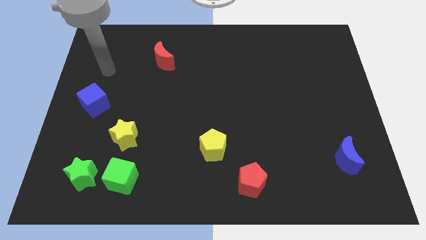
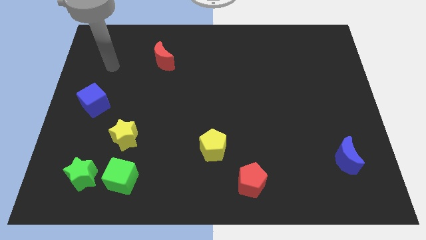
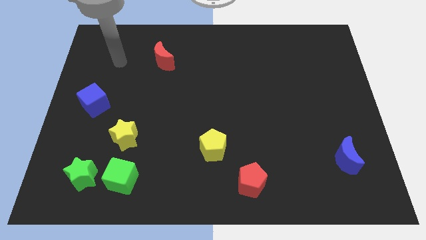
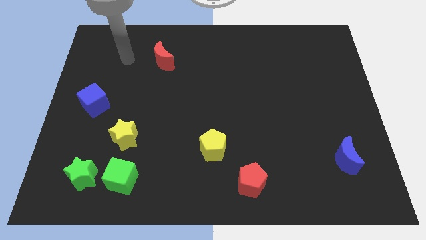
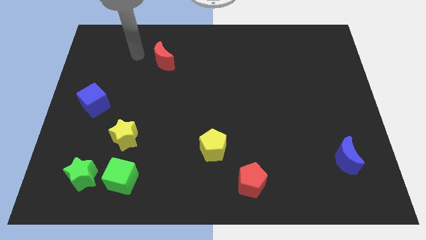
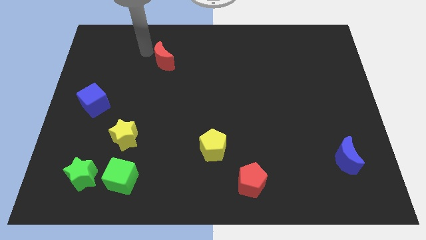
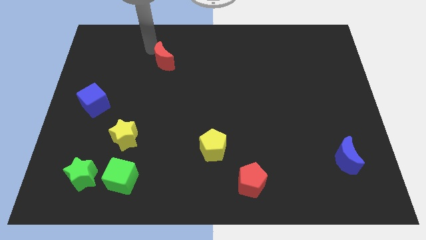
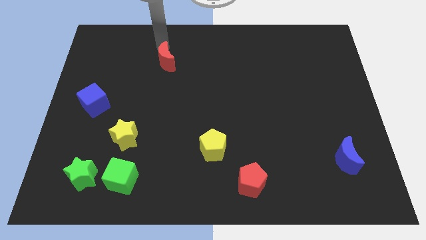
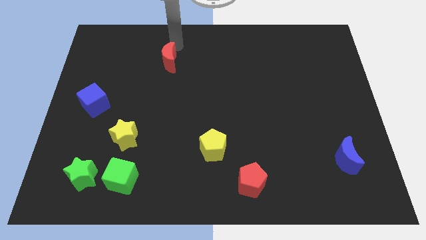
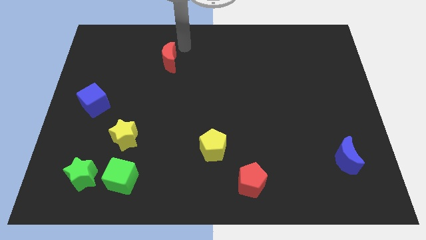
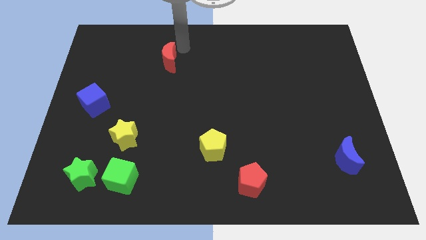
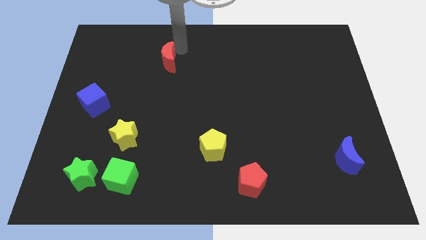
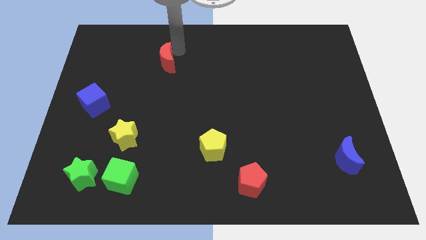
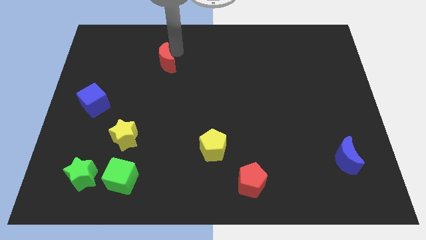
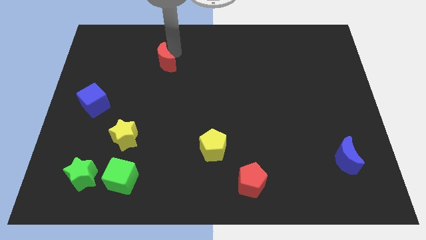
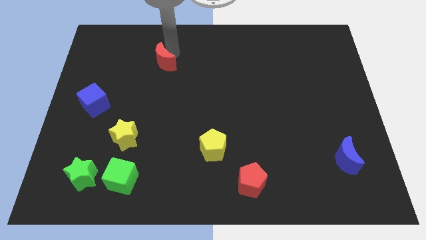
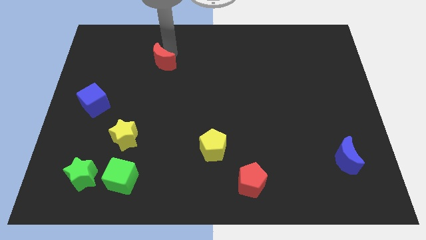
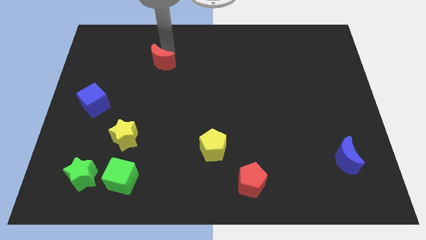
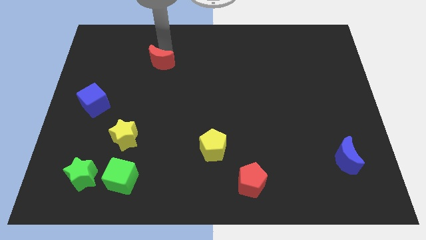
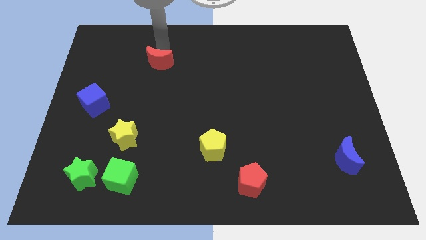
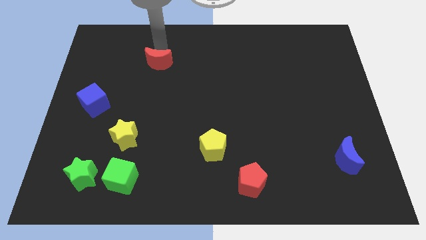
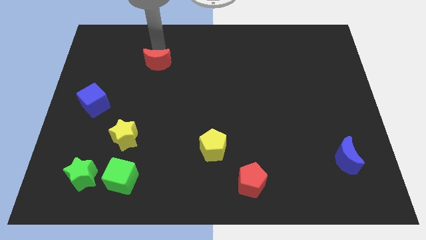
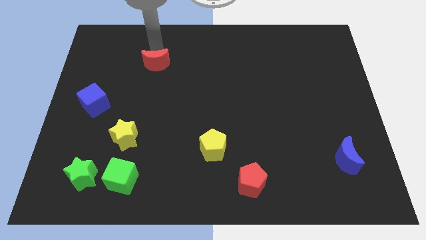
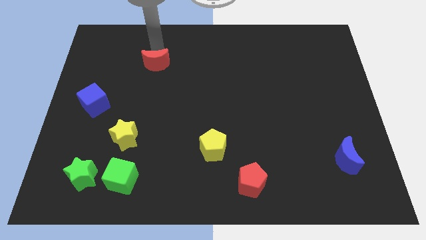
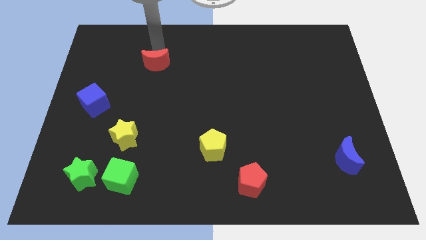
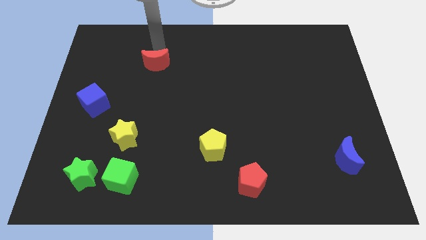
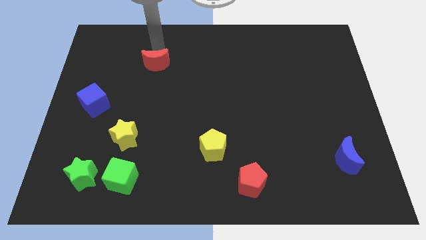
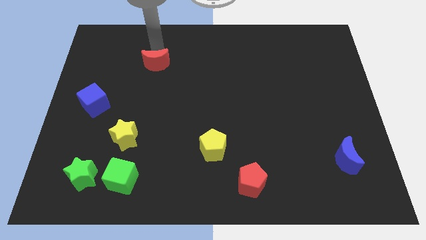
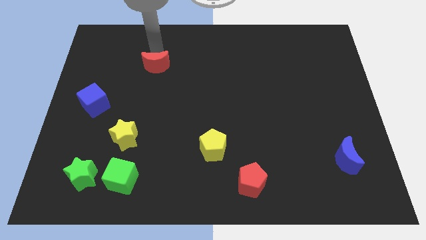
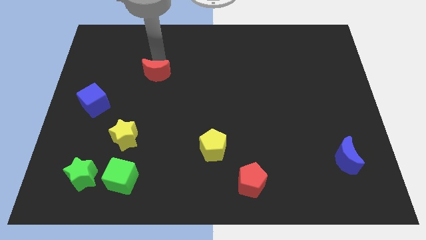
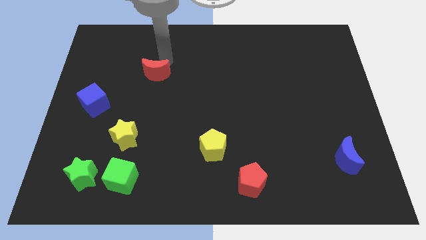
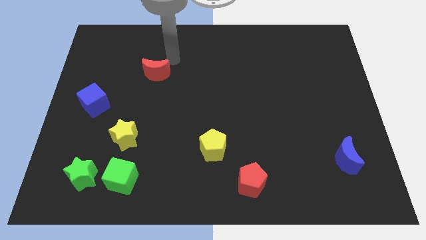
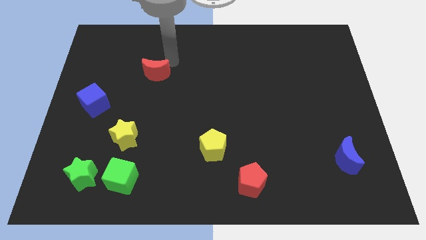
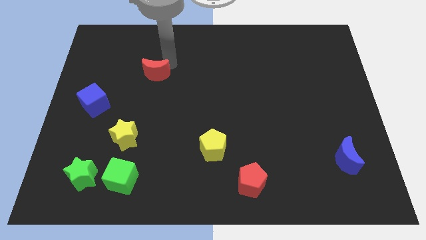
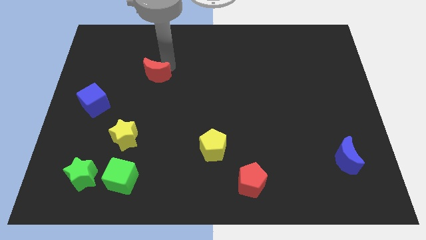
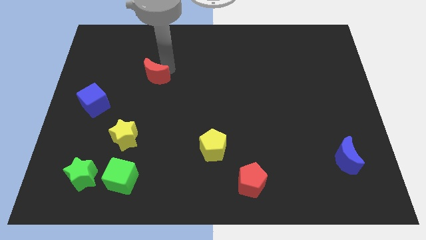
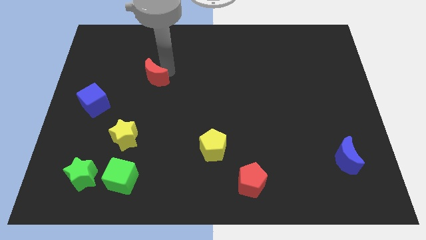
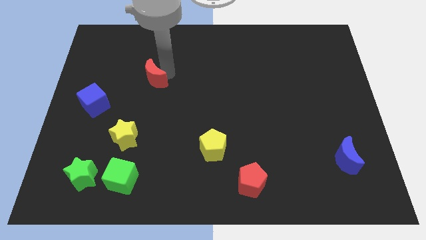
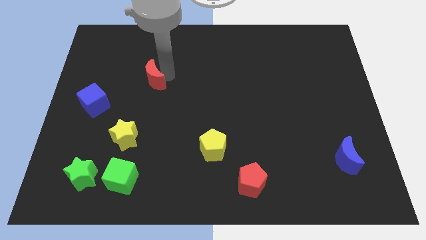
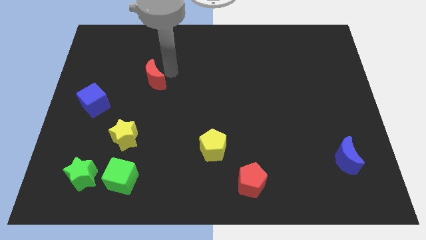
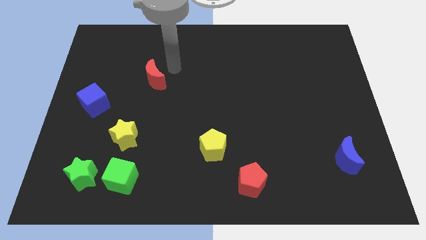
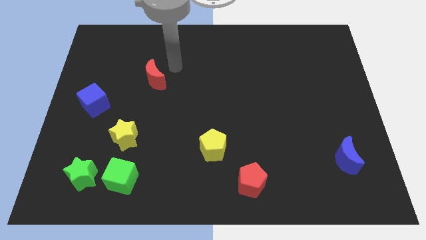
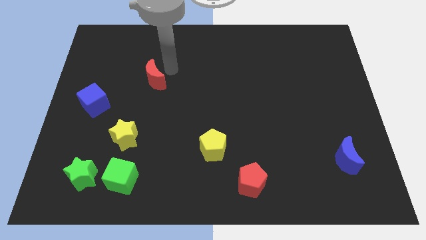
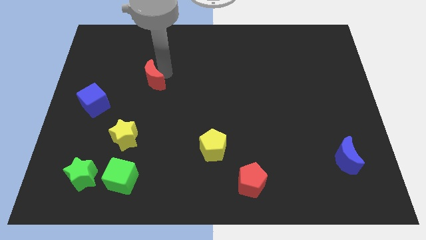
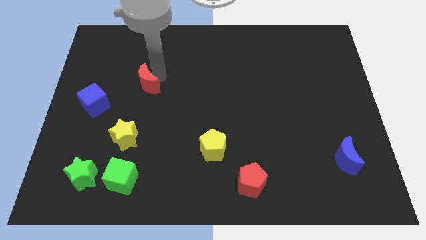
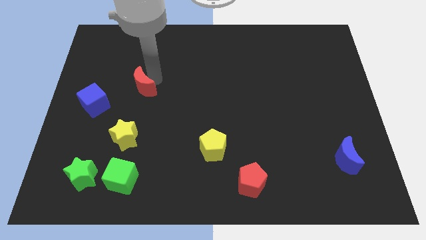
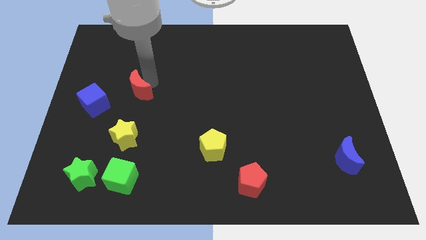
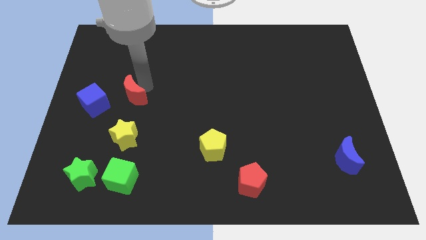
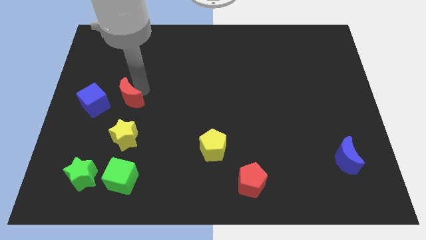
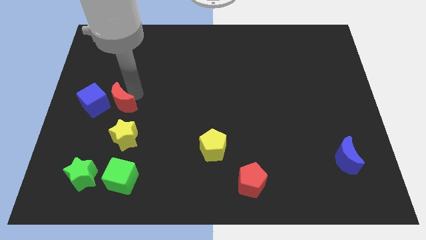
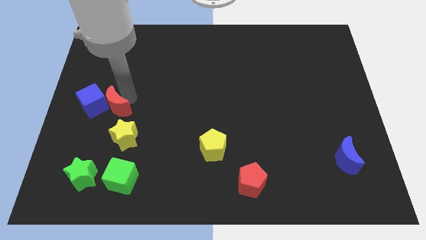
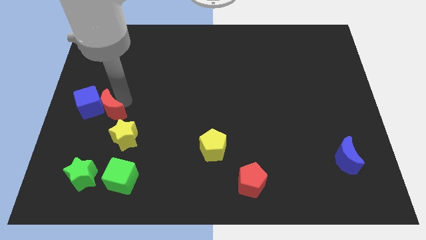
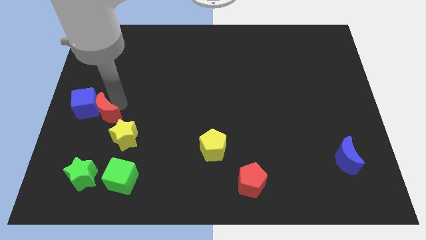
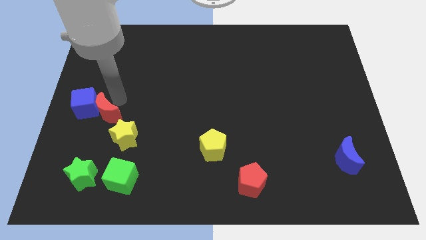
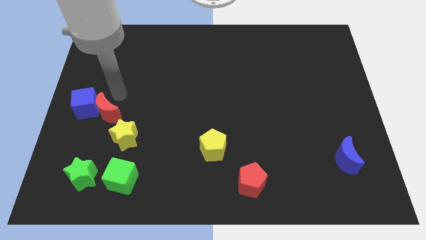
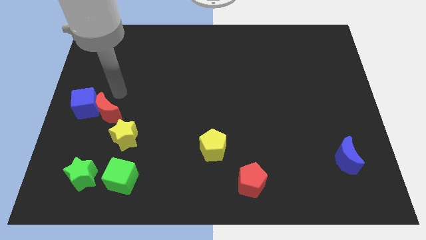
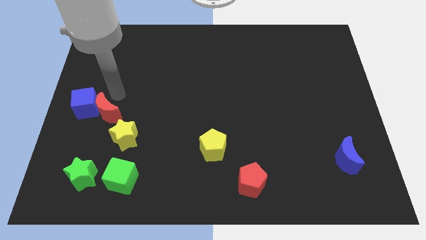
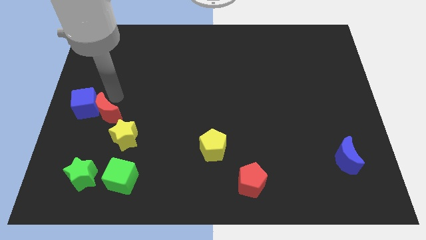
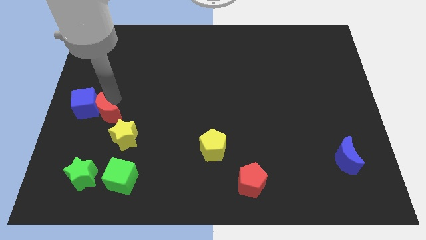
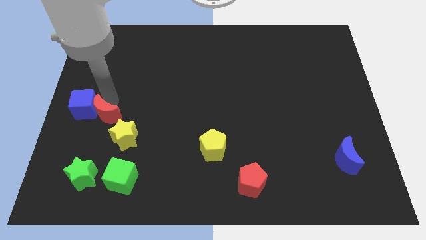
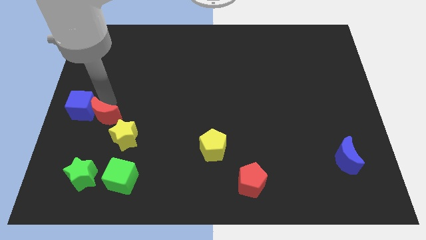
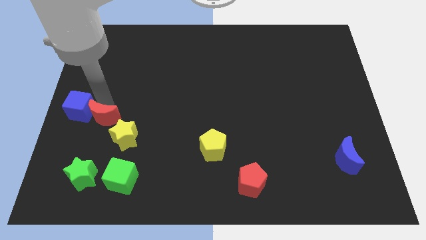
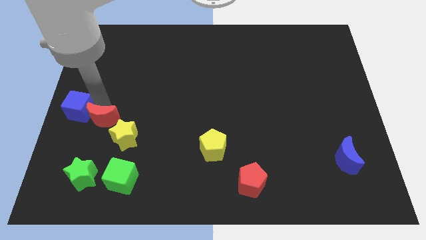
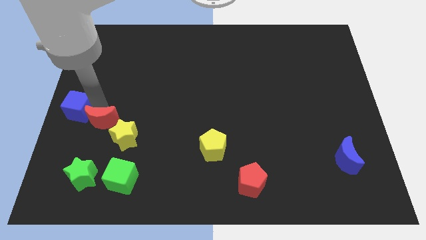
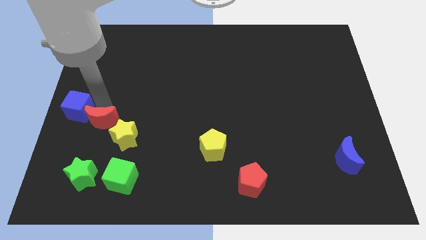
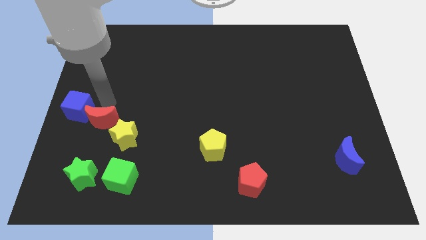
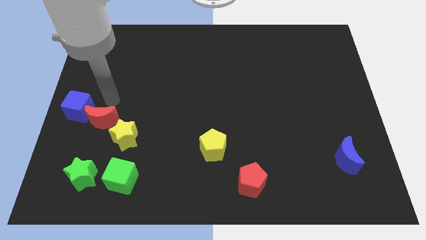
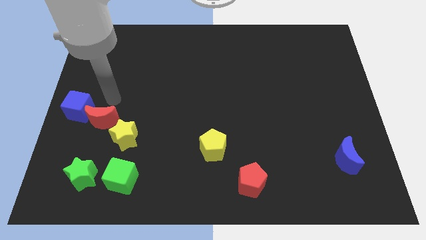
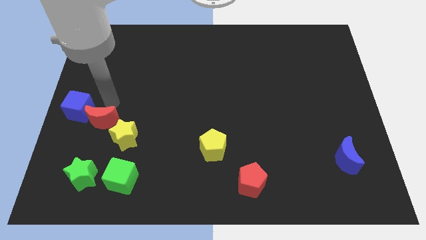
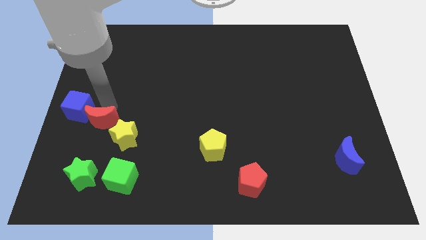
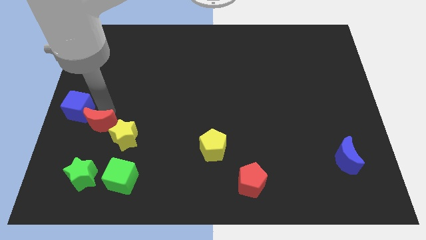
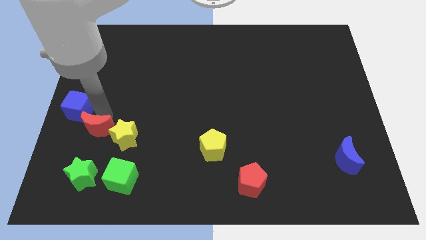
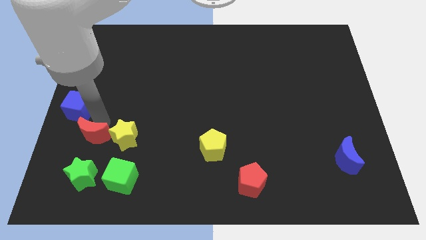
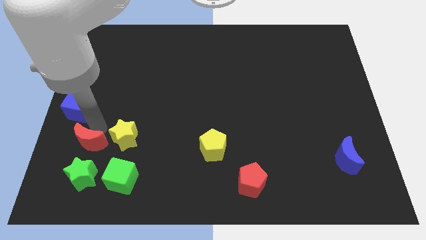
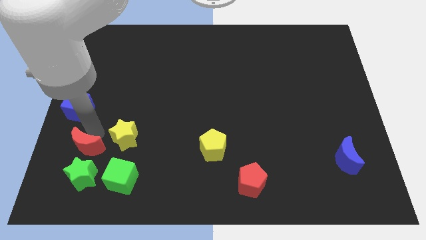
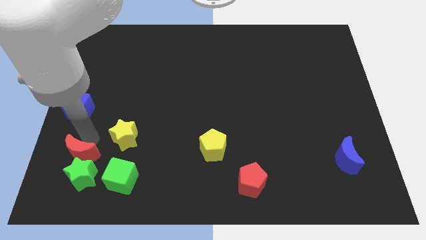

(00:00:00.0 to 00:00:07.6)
slide the red moon towards the green star
